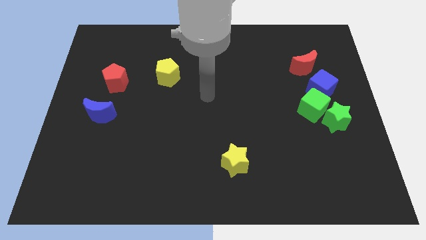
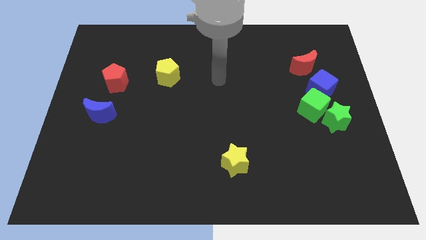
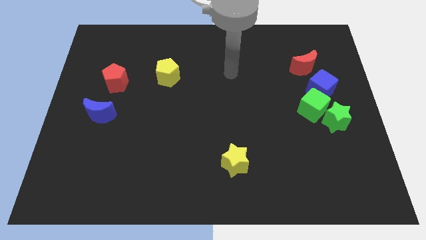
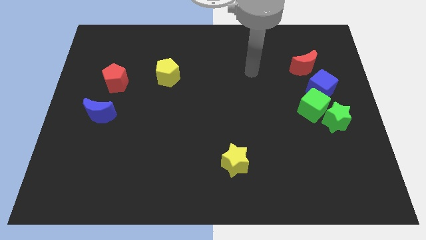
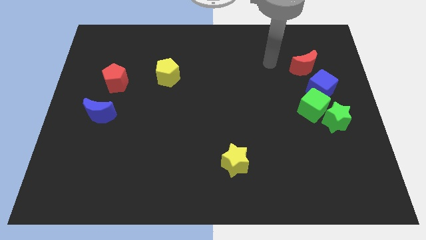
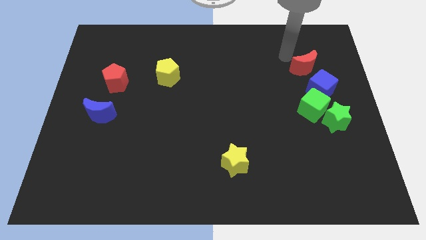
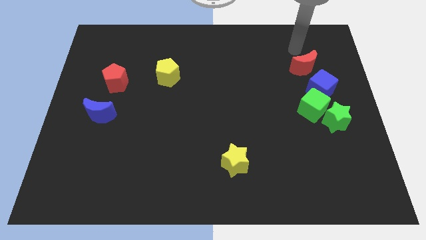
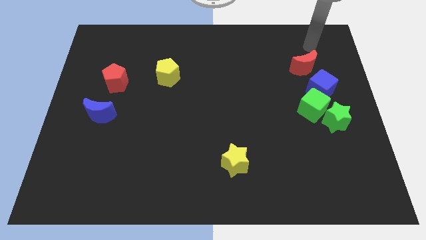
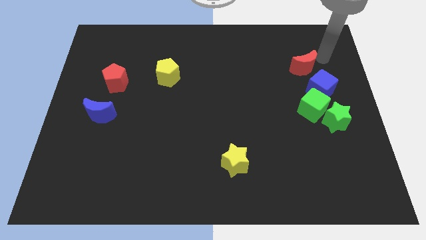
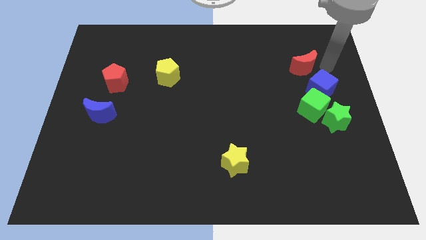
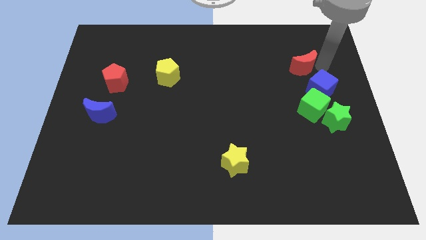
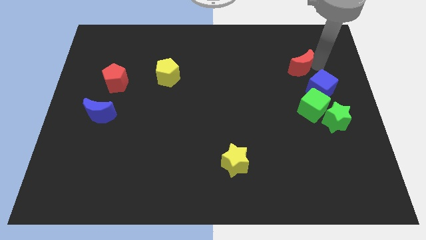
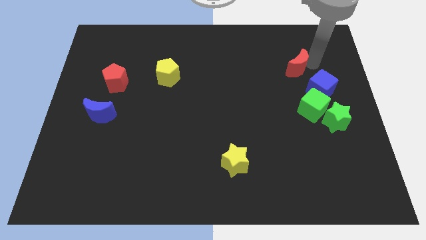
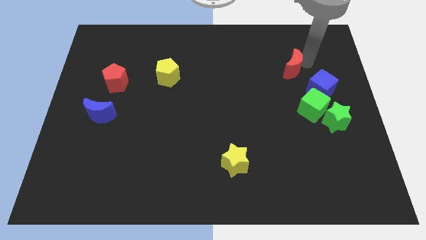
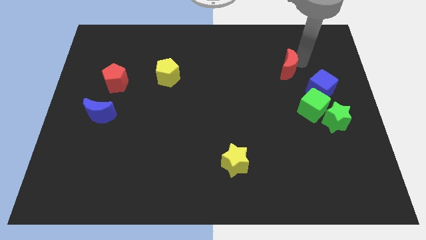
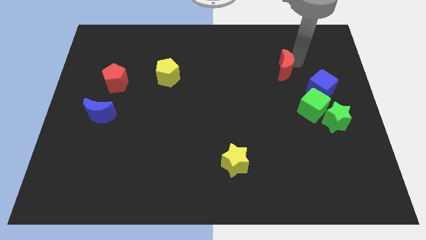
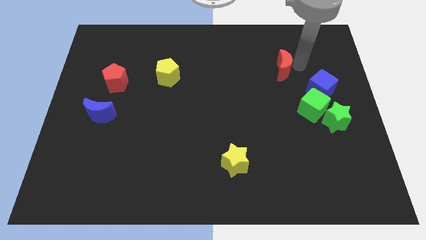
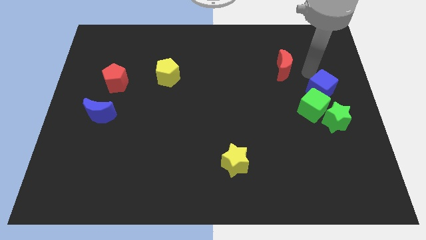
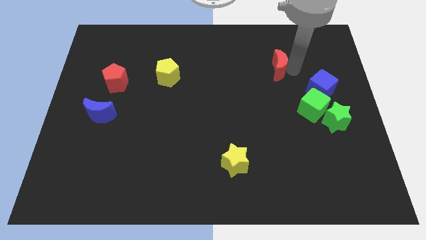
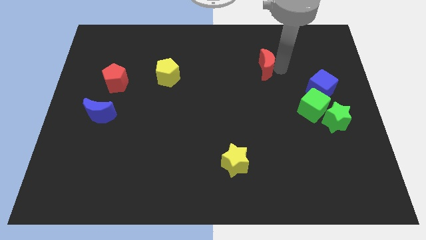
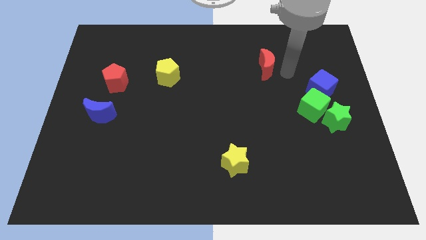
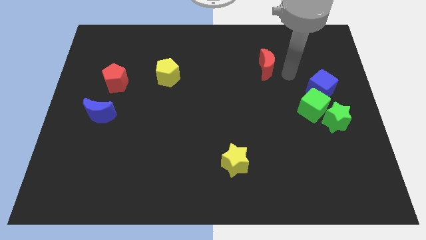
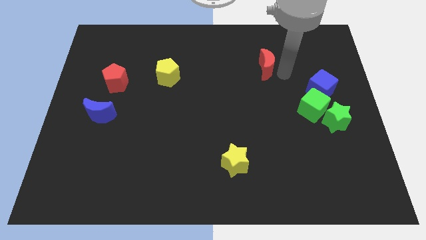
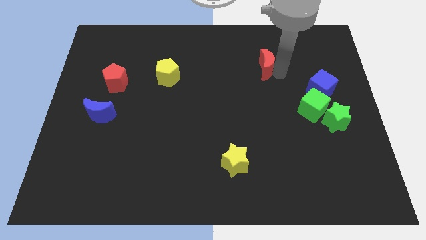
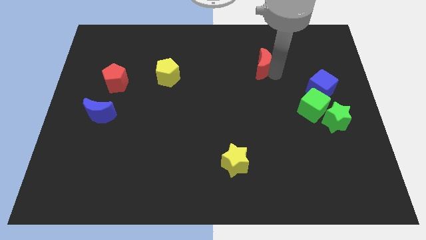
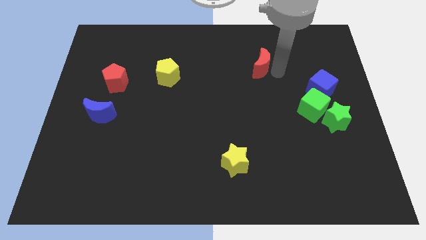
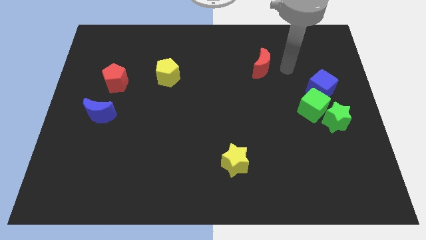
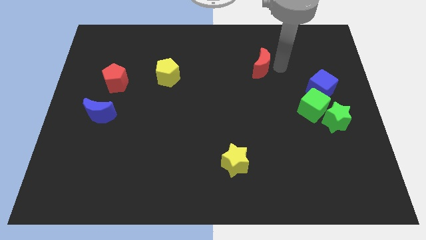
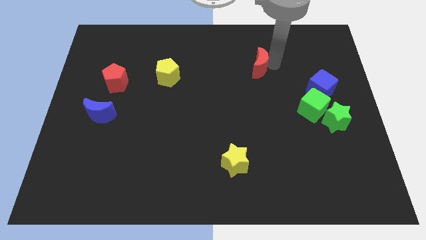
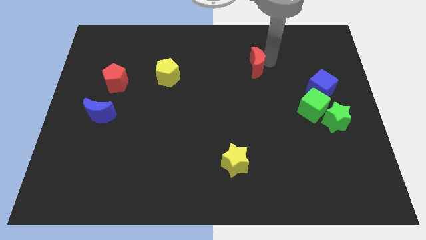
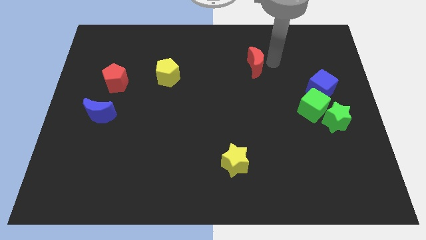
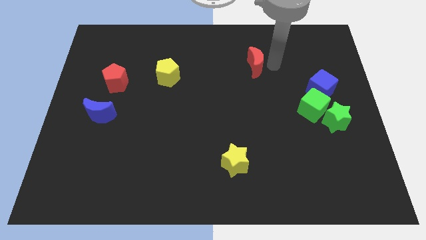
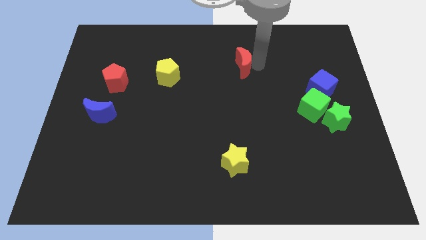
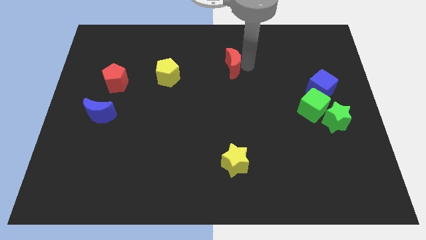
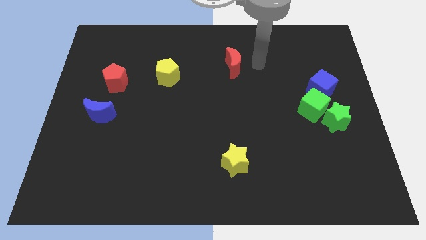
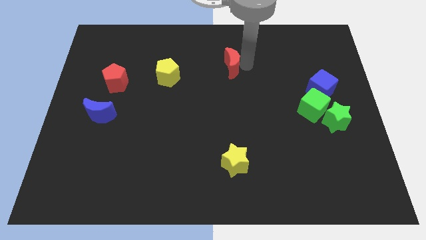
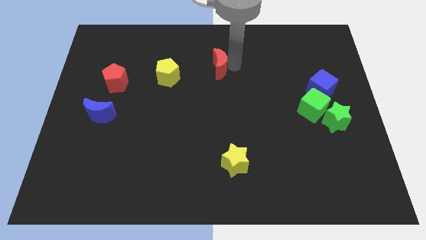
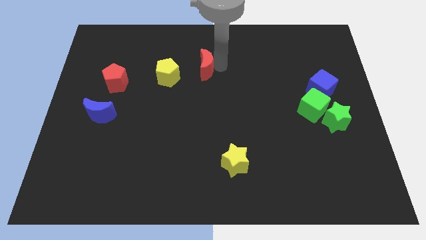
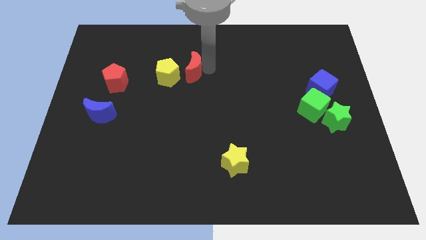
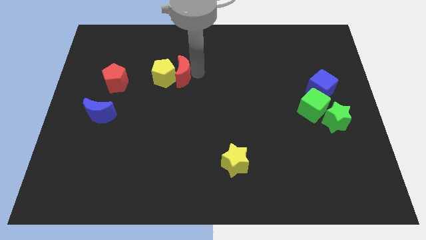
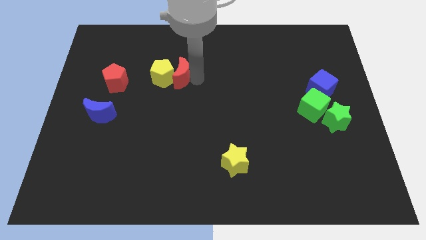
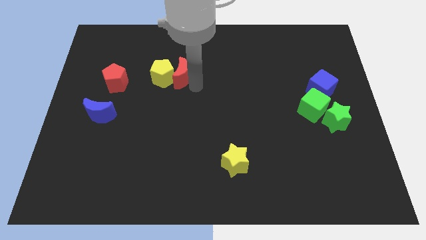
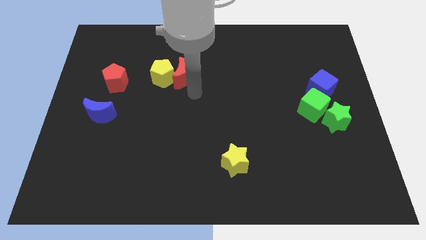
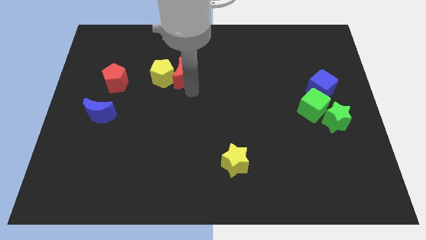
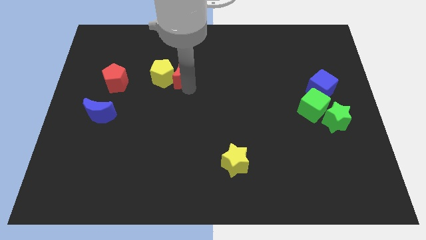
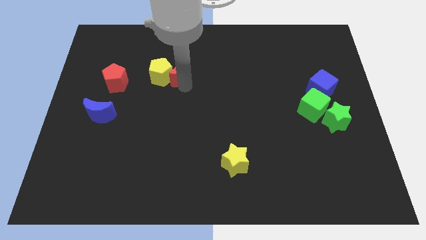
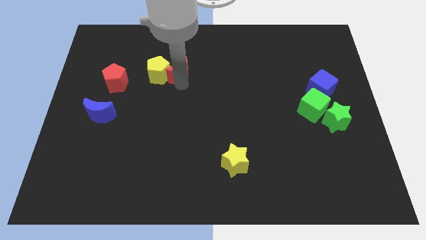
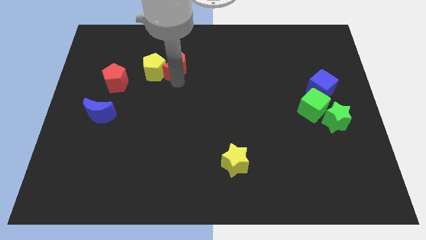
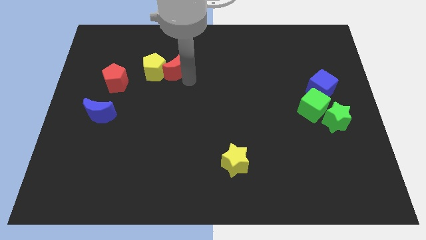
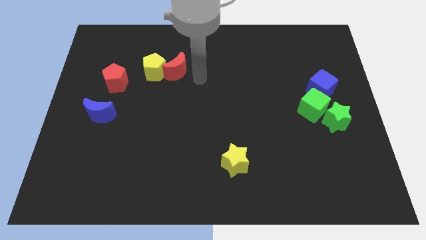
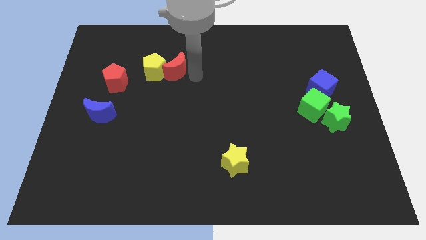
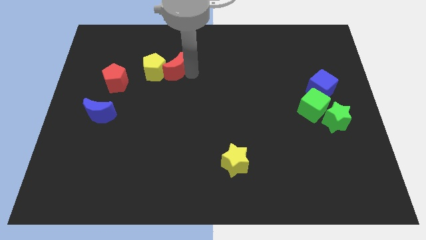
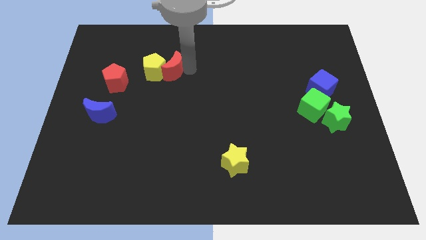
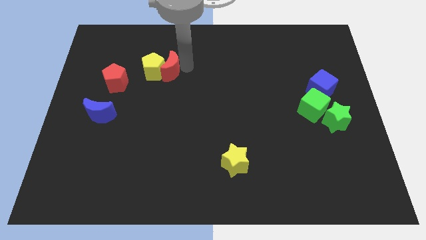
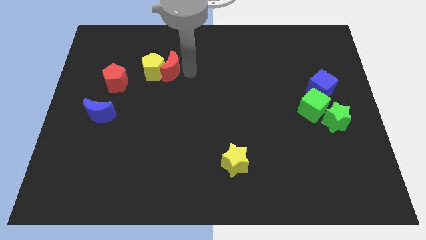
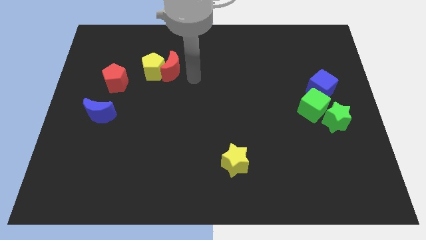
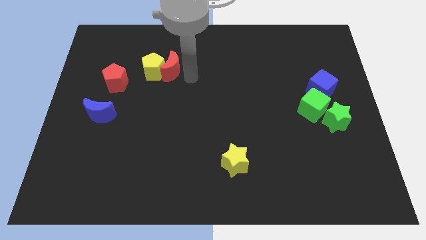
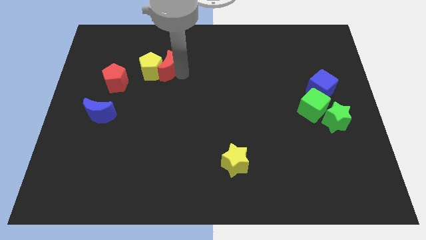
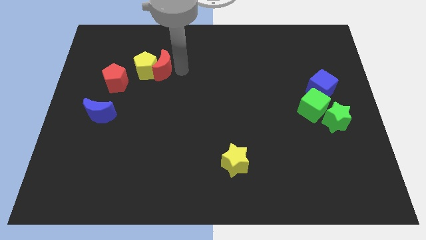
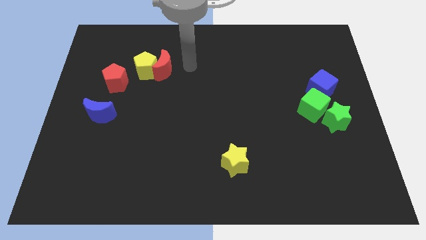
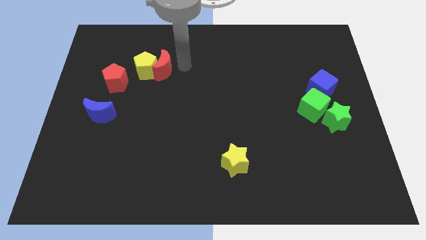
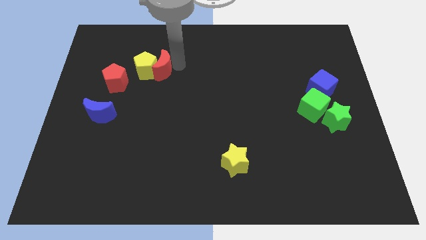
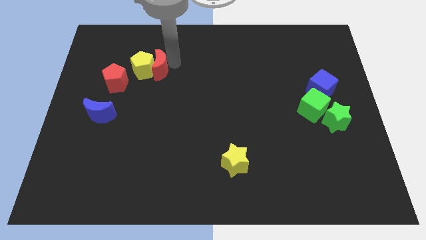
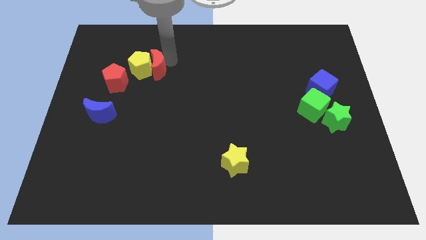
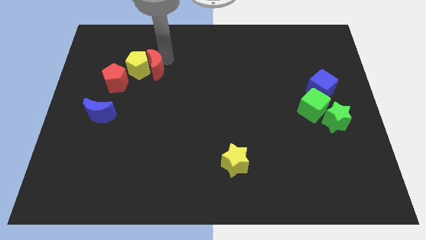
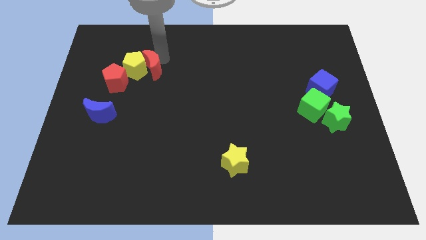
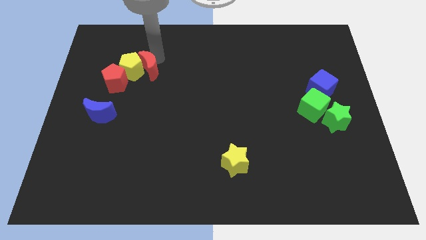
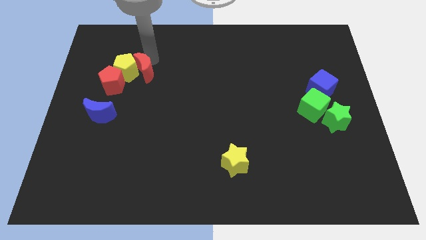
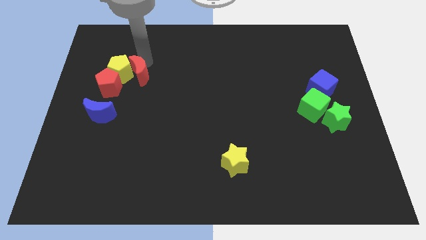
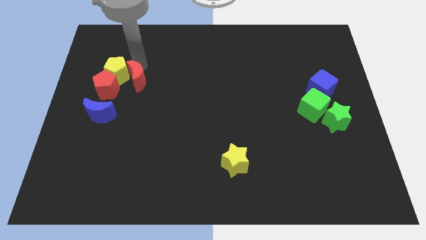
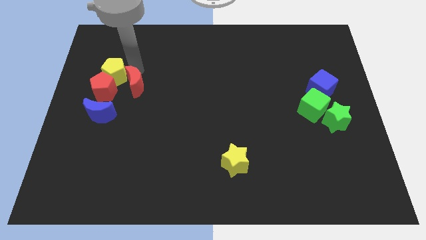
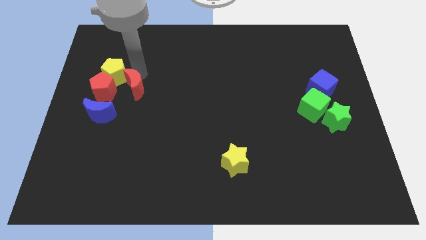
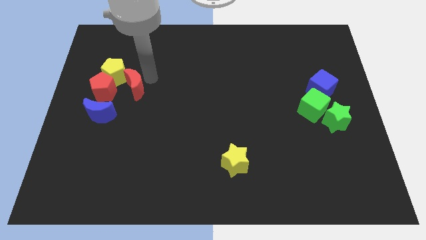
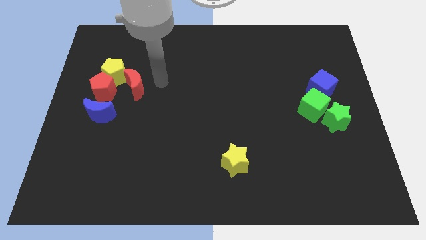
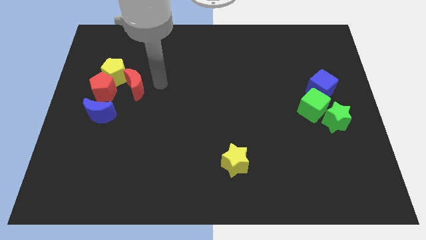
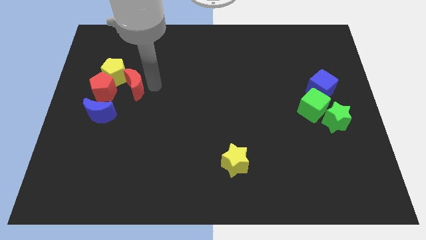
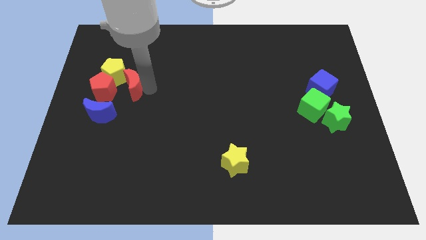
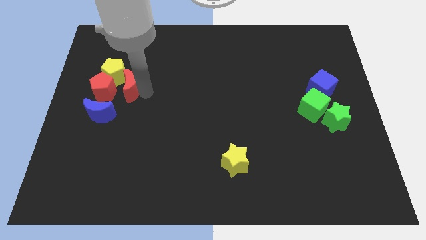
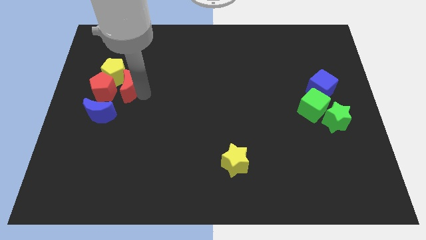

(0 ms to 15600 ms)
put the red moon close to the red pentagon
